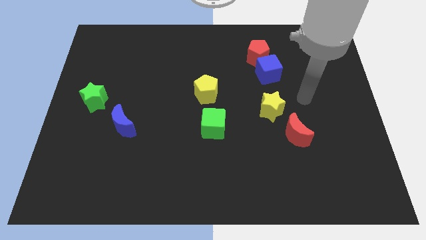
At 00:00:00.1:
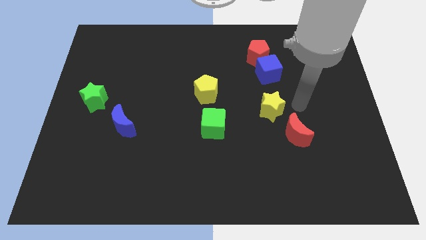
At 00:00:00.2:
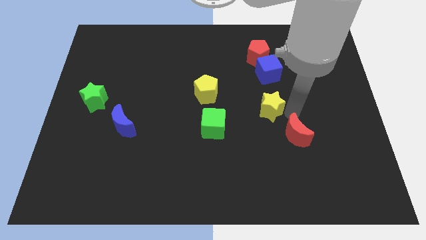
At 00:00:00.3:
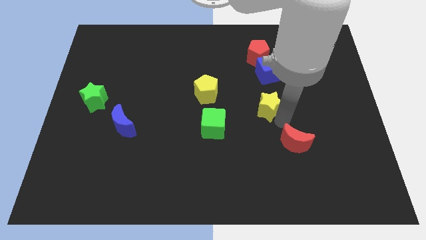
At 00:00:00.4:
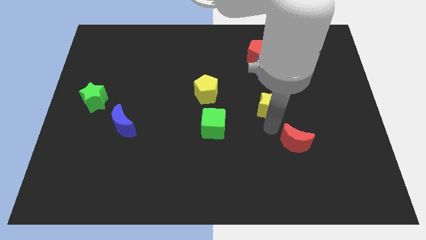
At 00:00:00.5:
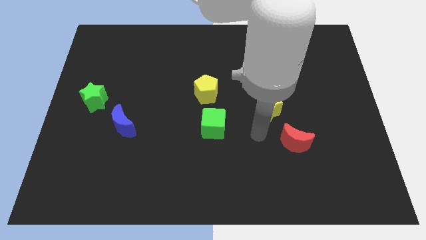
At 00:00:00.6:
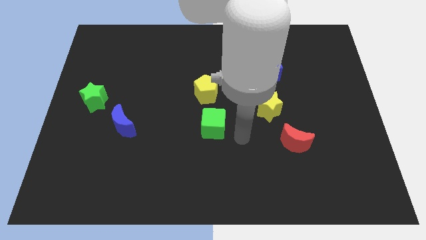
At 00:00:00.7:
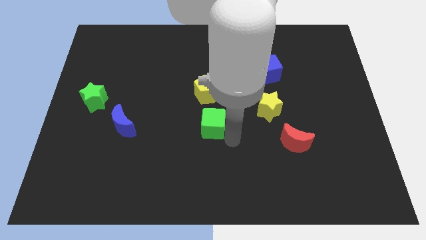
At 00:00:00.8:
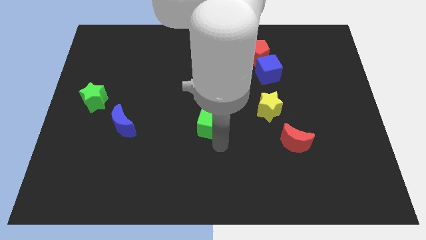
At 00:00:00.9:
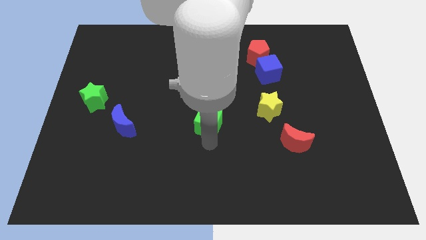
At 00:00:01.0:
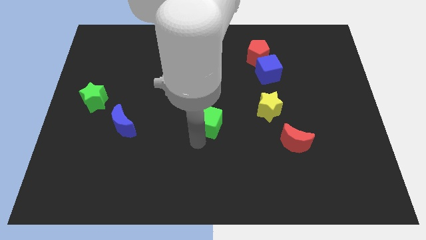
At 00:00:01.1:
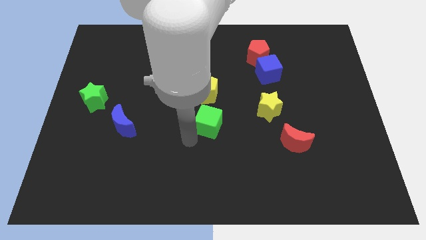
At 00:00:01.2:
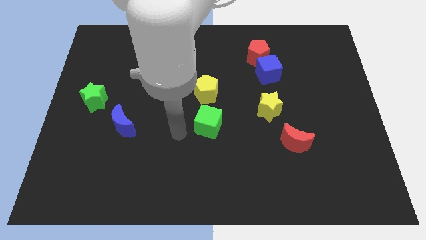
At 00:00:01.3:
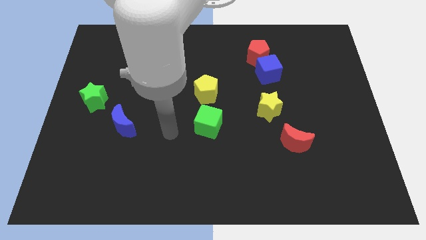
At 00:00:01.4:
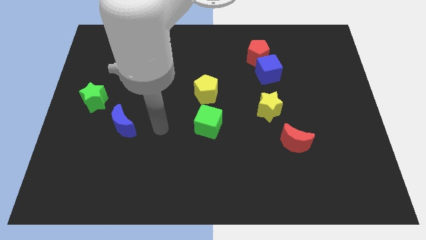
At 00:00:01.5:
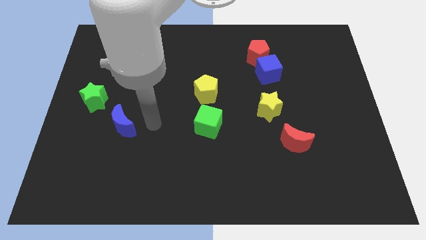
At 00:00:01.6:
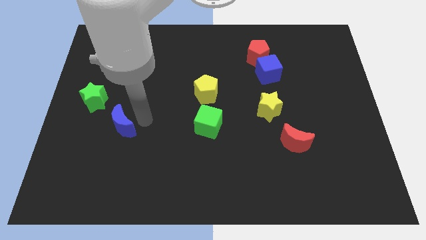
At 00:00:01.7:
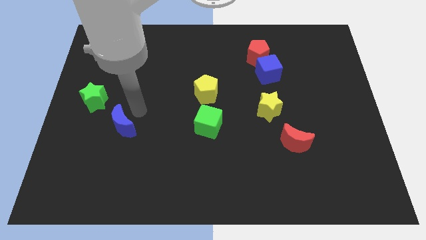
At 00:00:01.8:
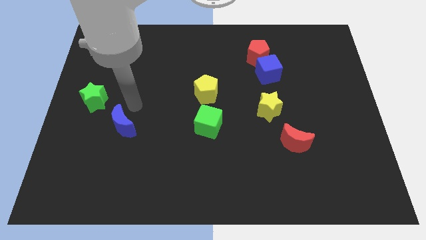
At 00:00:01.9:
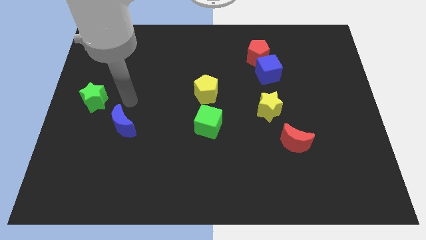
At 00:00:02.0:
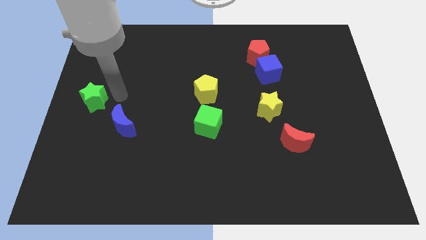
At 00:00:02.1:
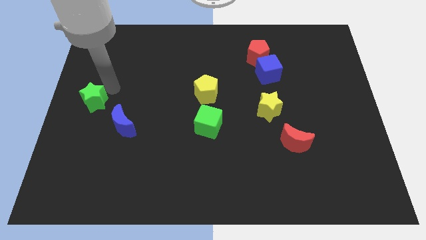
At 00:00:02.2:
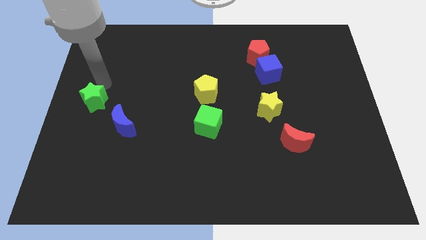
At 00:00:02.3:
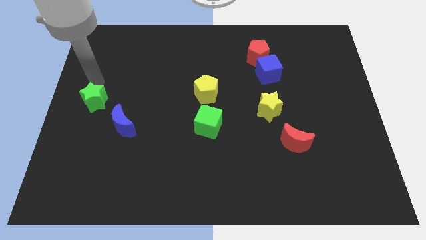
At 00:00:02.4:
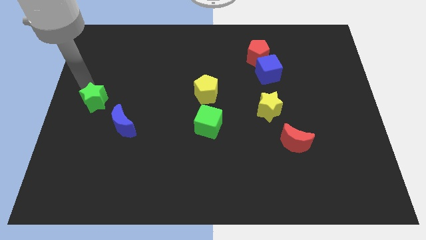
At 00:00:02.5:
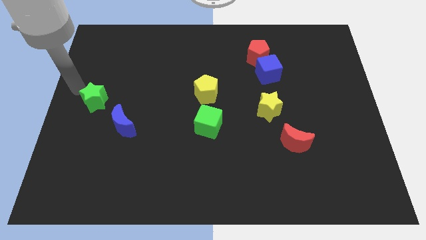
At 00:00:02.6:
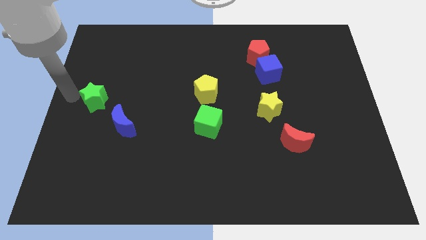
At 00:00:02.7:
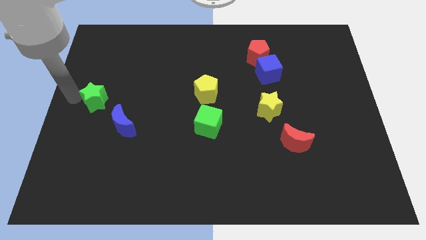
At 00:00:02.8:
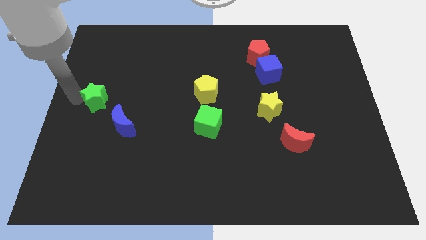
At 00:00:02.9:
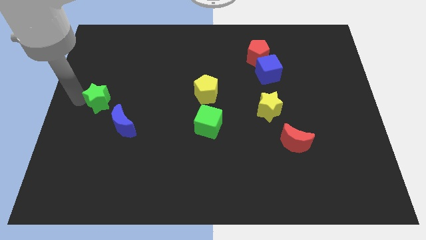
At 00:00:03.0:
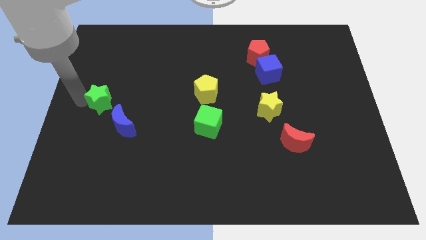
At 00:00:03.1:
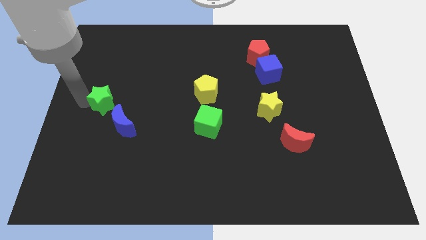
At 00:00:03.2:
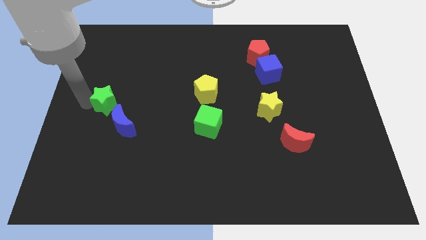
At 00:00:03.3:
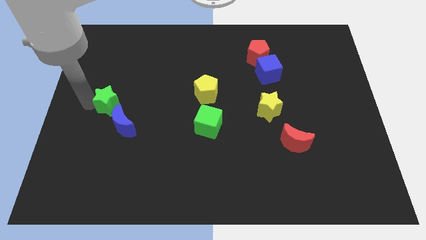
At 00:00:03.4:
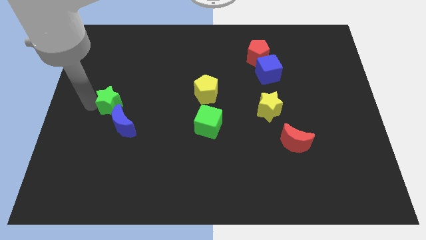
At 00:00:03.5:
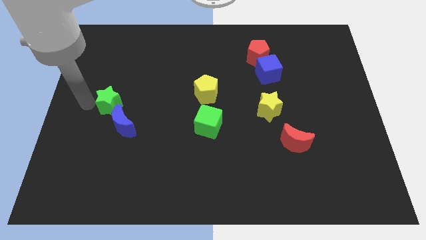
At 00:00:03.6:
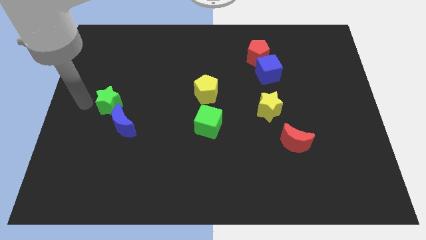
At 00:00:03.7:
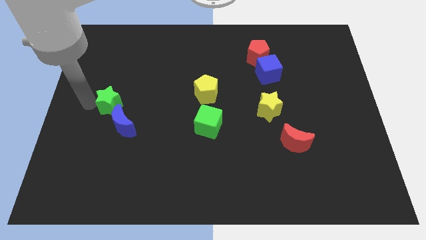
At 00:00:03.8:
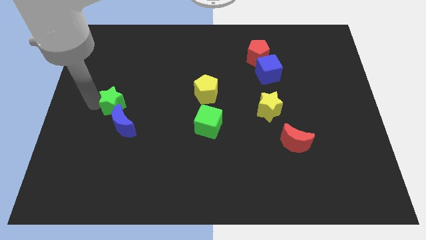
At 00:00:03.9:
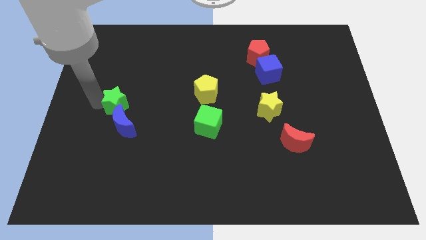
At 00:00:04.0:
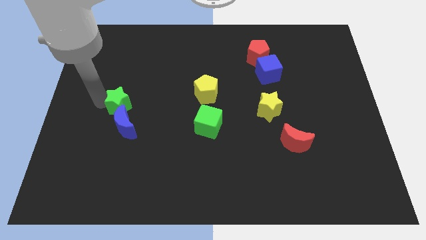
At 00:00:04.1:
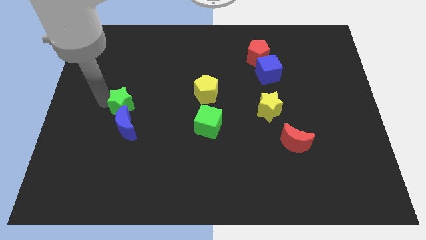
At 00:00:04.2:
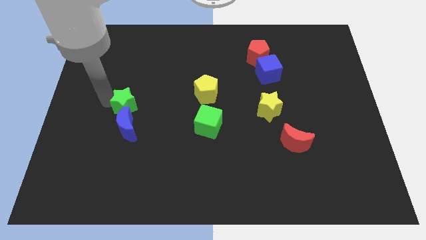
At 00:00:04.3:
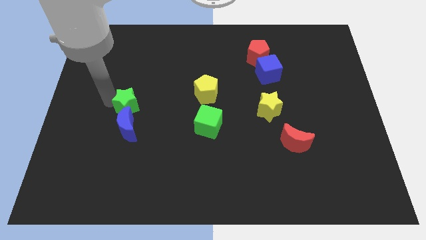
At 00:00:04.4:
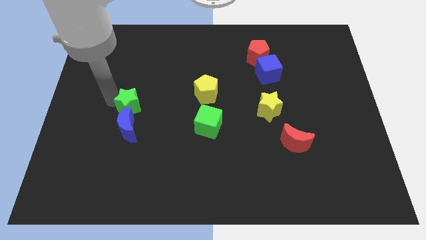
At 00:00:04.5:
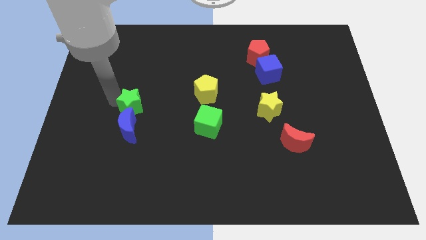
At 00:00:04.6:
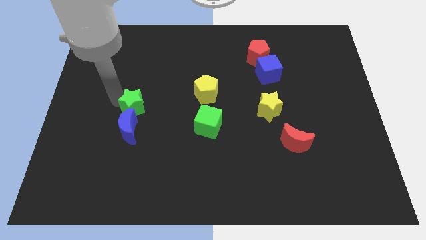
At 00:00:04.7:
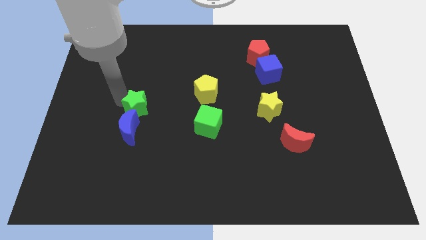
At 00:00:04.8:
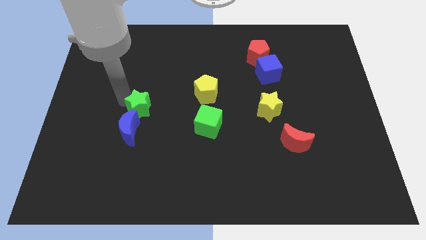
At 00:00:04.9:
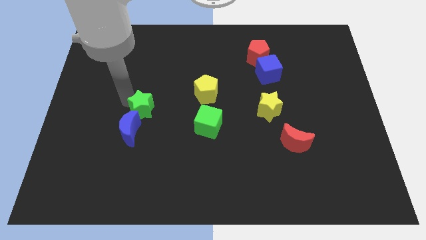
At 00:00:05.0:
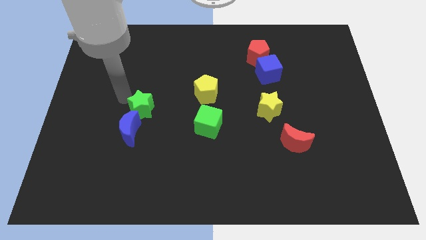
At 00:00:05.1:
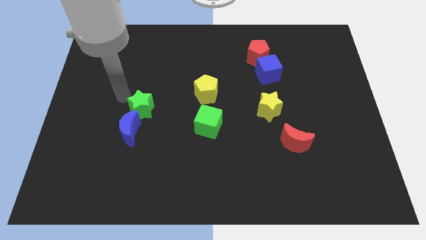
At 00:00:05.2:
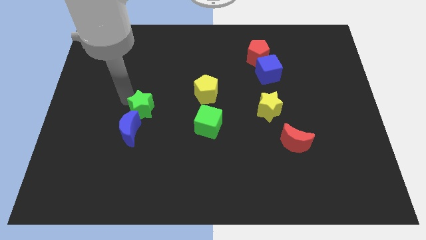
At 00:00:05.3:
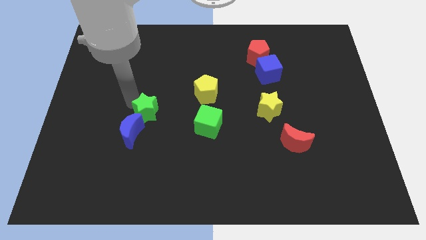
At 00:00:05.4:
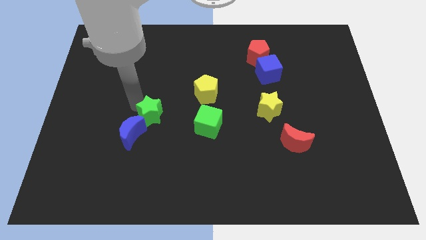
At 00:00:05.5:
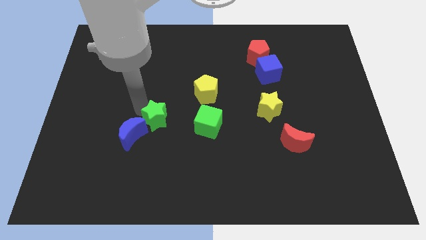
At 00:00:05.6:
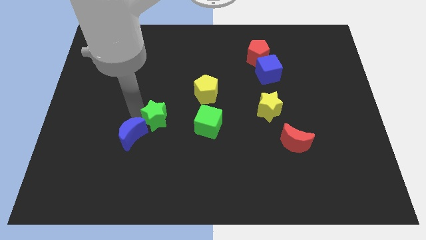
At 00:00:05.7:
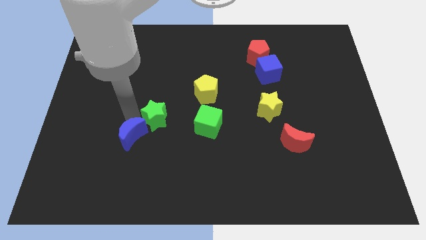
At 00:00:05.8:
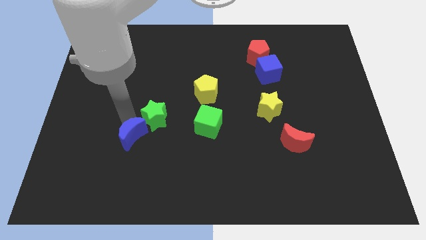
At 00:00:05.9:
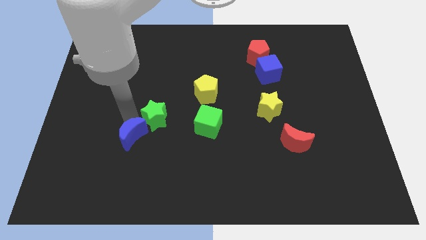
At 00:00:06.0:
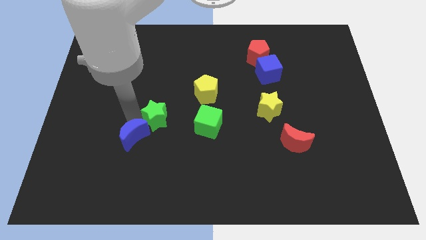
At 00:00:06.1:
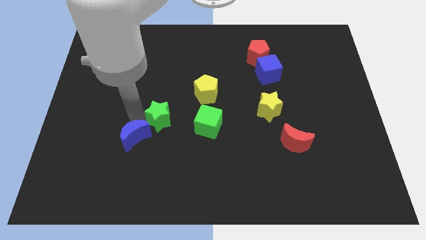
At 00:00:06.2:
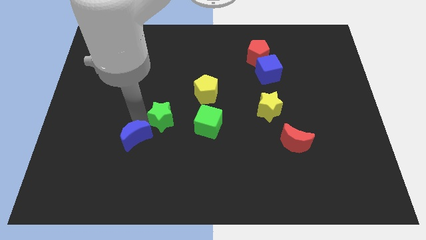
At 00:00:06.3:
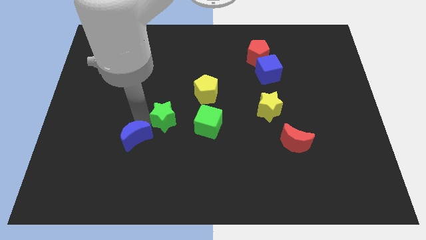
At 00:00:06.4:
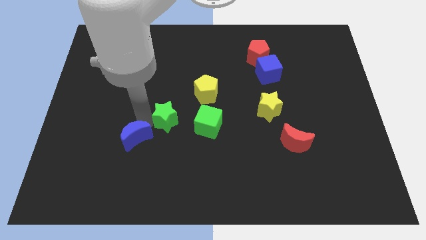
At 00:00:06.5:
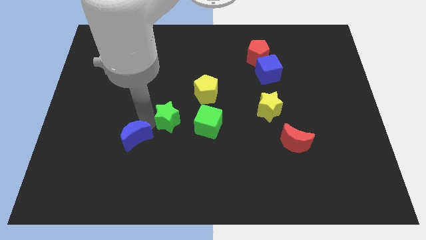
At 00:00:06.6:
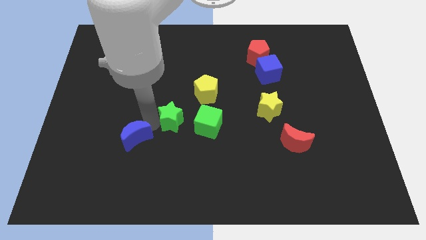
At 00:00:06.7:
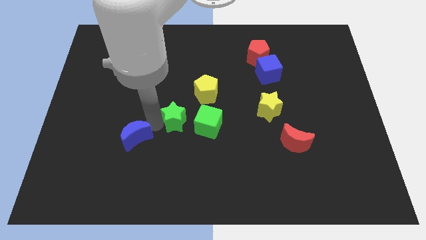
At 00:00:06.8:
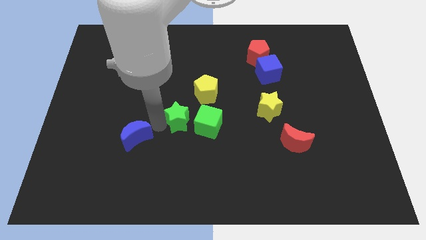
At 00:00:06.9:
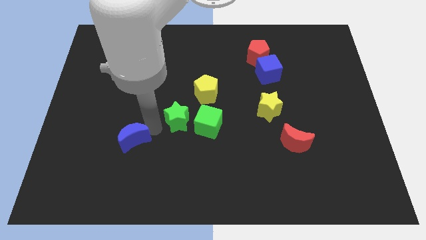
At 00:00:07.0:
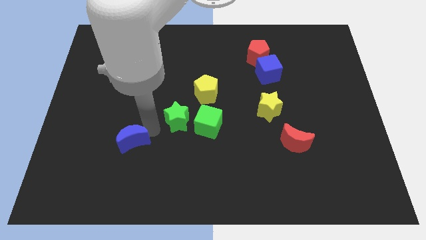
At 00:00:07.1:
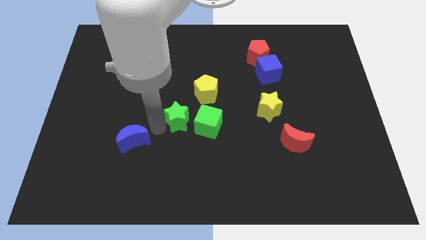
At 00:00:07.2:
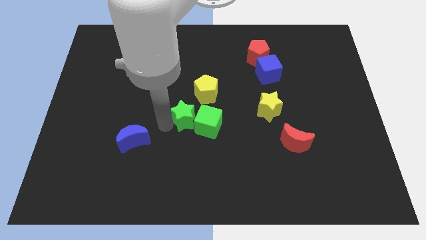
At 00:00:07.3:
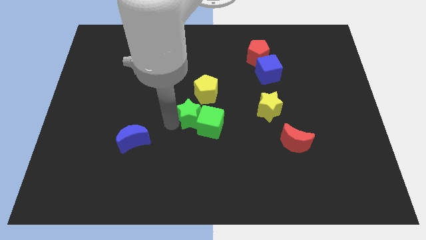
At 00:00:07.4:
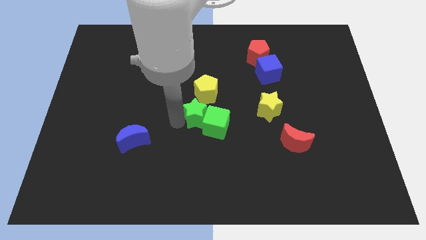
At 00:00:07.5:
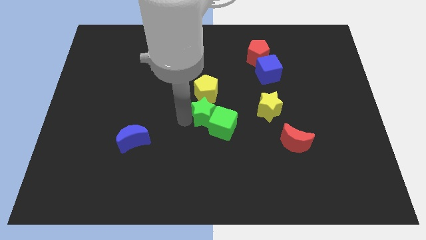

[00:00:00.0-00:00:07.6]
push the green star diagonally down and to the right of the yellow pentagon
